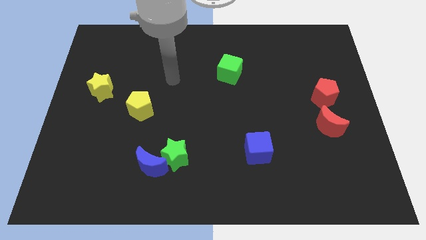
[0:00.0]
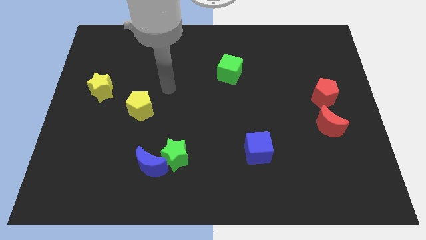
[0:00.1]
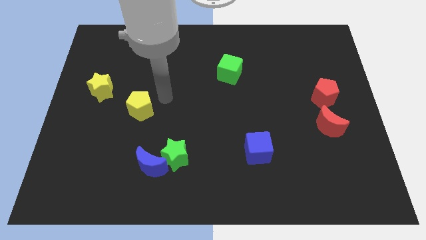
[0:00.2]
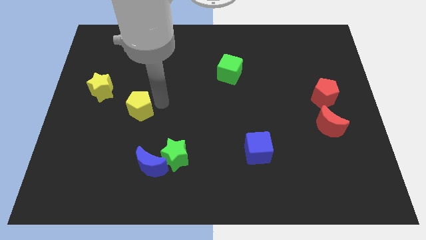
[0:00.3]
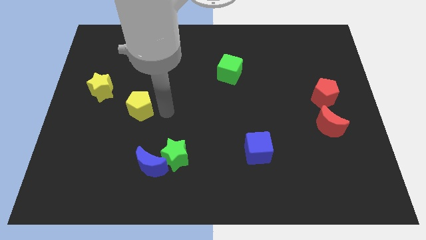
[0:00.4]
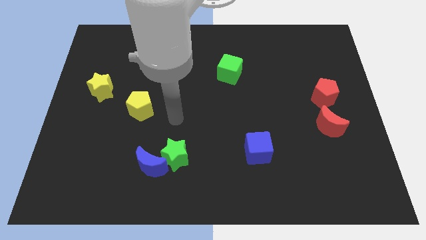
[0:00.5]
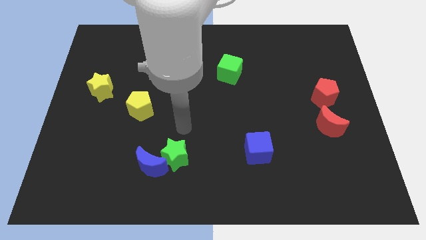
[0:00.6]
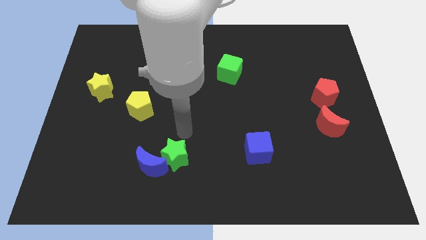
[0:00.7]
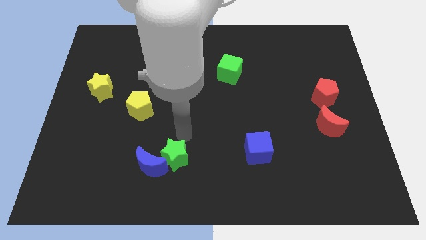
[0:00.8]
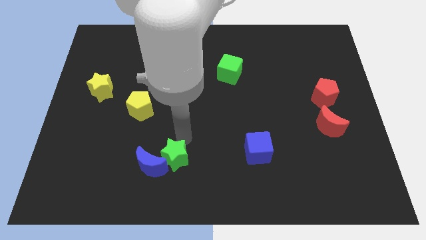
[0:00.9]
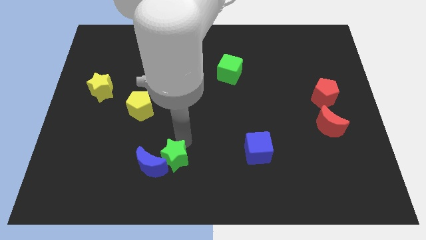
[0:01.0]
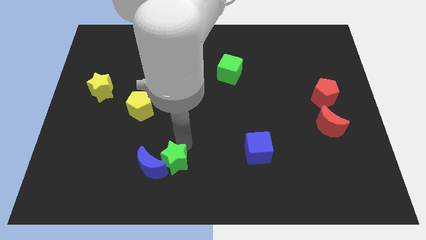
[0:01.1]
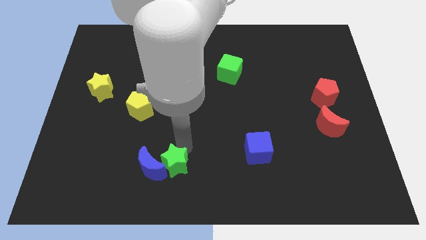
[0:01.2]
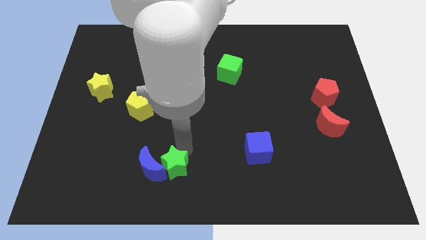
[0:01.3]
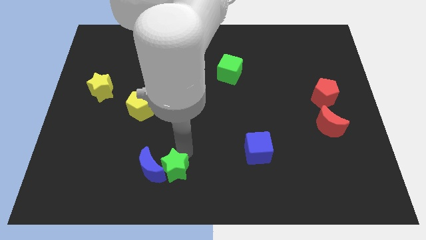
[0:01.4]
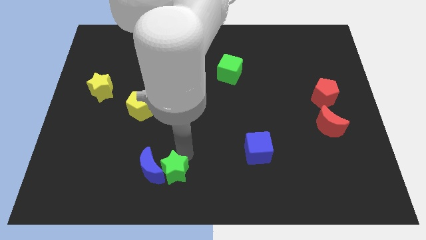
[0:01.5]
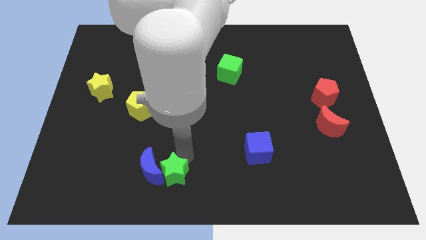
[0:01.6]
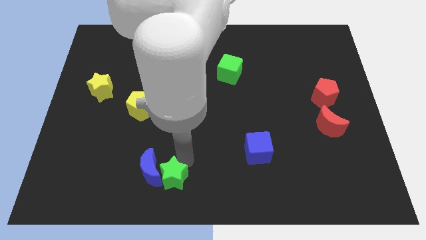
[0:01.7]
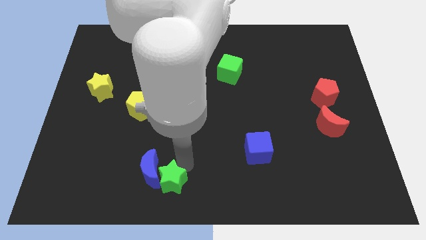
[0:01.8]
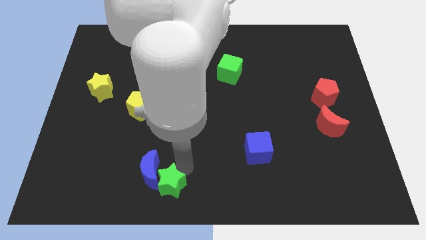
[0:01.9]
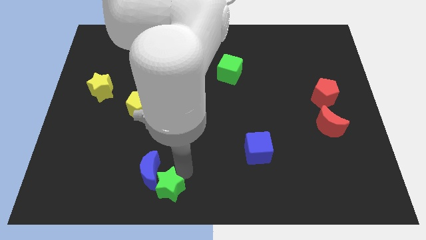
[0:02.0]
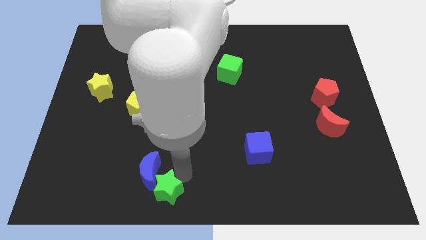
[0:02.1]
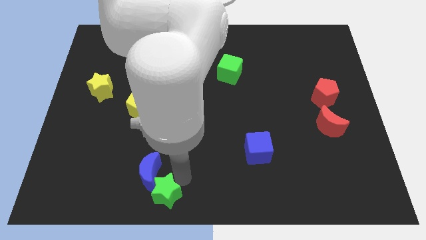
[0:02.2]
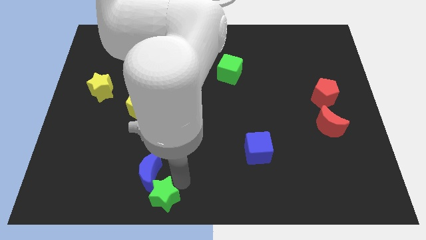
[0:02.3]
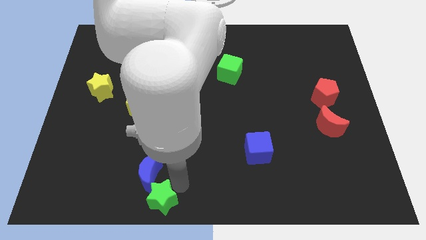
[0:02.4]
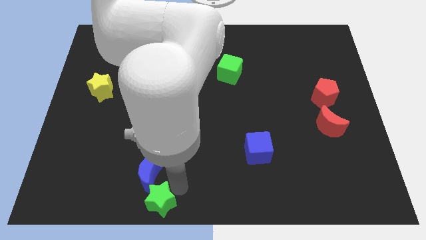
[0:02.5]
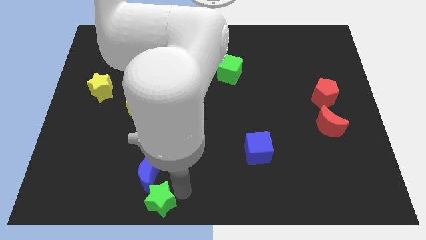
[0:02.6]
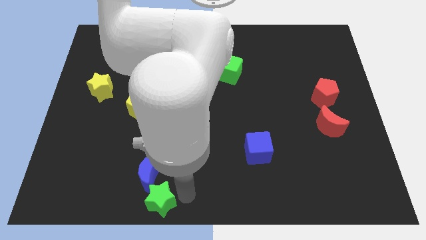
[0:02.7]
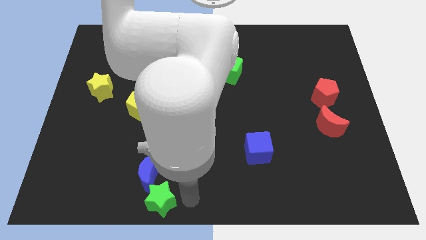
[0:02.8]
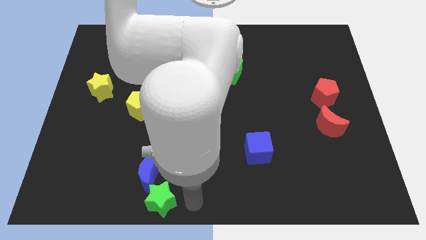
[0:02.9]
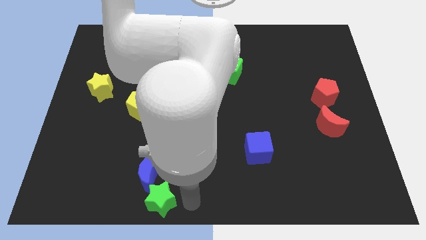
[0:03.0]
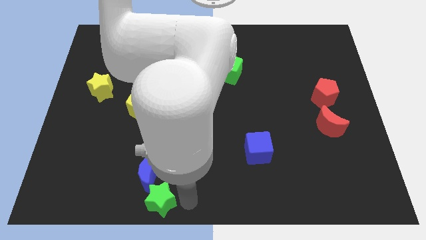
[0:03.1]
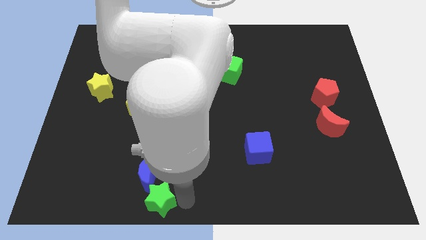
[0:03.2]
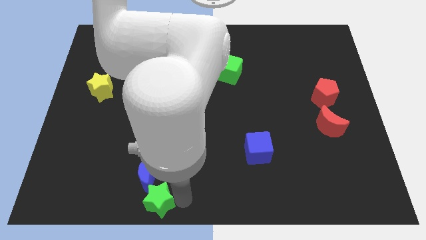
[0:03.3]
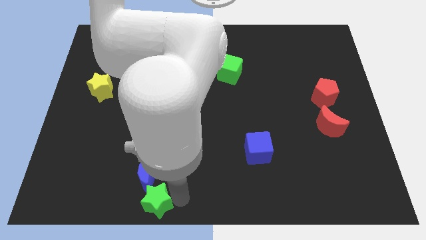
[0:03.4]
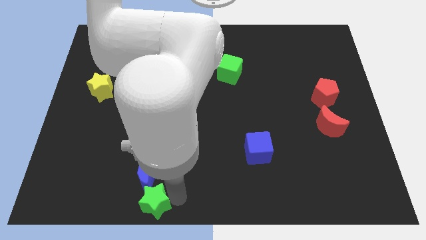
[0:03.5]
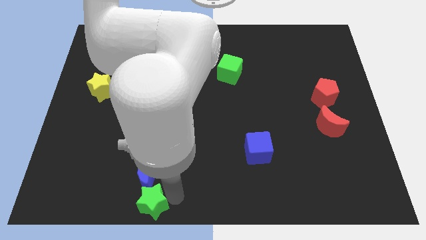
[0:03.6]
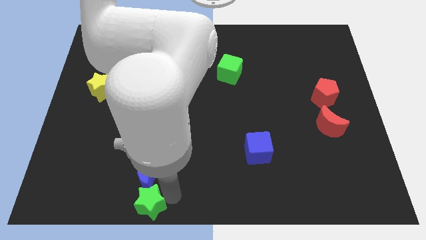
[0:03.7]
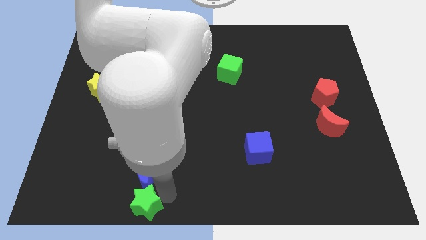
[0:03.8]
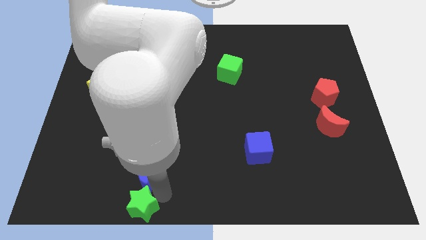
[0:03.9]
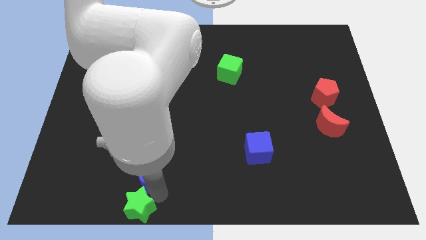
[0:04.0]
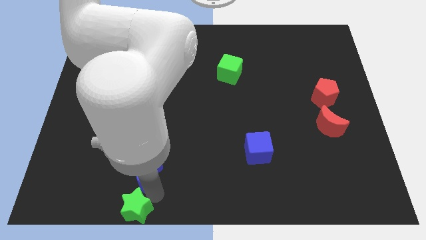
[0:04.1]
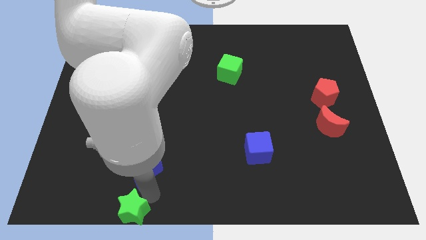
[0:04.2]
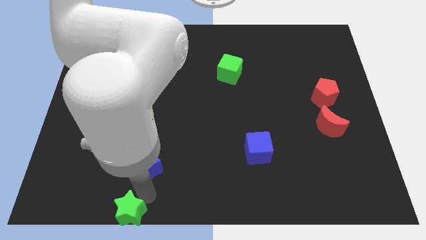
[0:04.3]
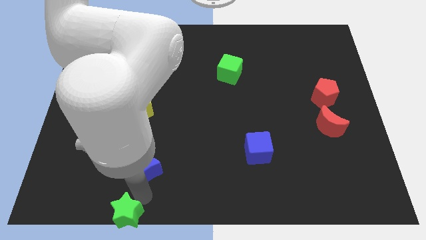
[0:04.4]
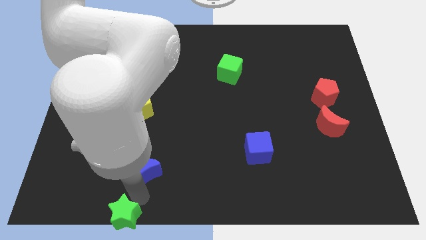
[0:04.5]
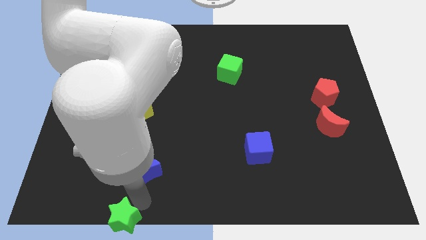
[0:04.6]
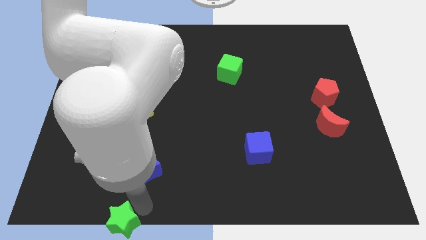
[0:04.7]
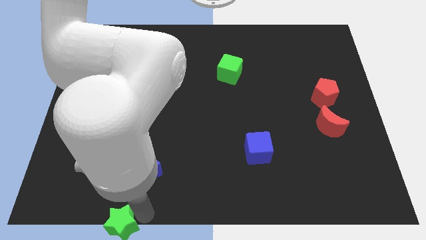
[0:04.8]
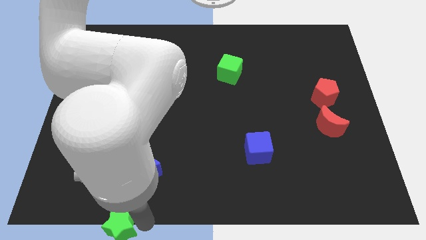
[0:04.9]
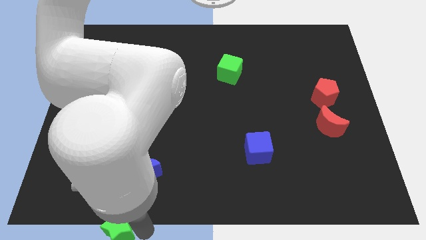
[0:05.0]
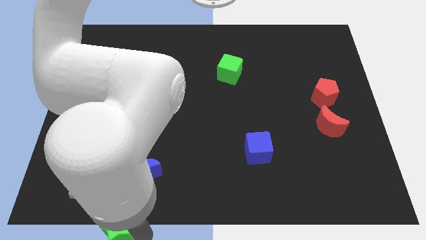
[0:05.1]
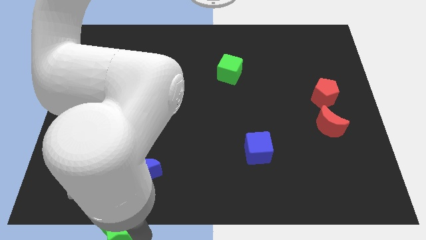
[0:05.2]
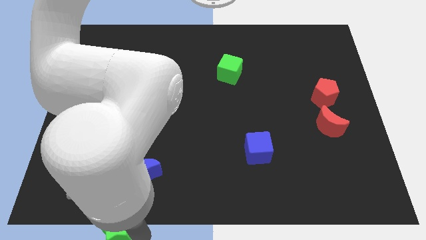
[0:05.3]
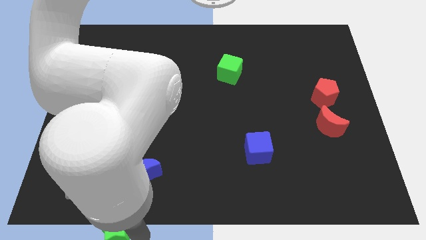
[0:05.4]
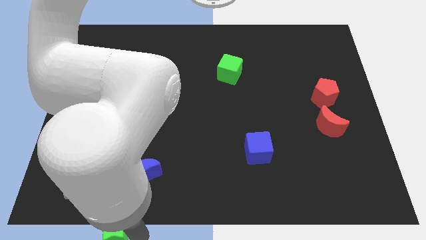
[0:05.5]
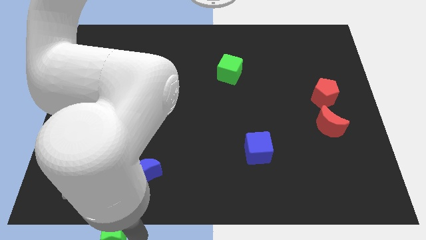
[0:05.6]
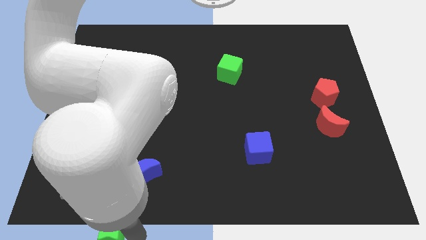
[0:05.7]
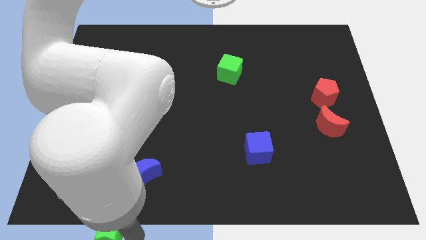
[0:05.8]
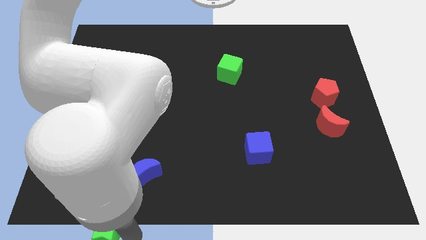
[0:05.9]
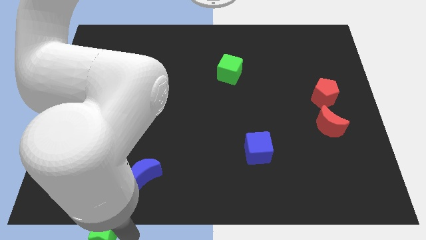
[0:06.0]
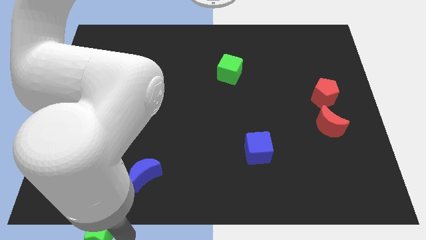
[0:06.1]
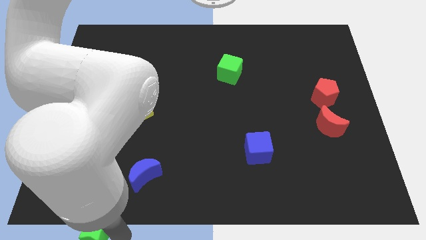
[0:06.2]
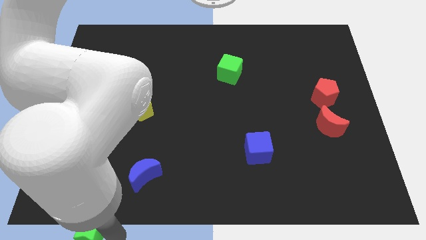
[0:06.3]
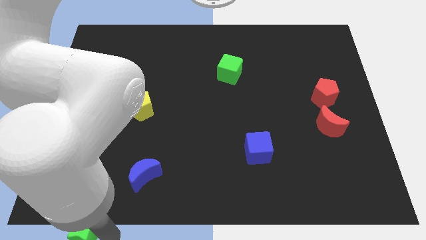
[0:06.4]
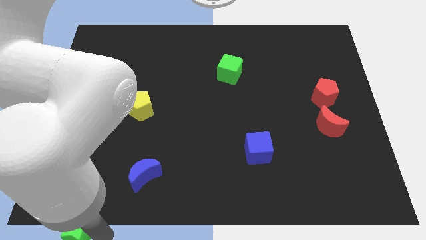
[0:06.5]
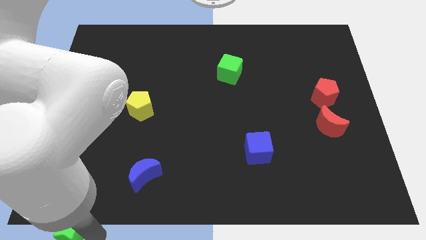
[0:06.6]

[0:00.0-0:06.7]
move the green star to the bottom left
